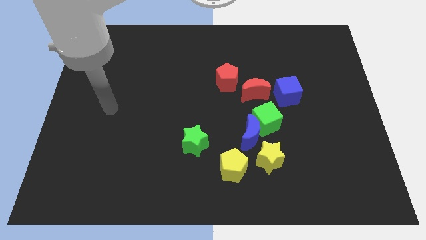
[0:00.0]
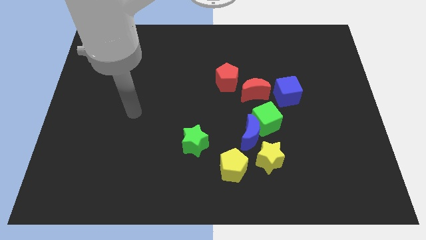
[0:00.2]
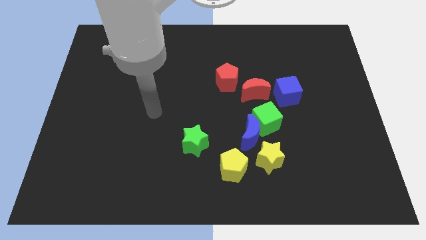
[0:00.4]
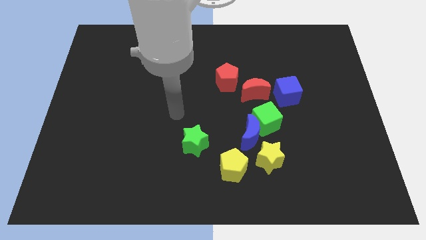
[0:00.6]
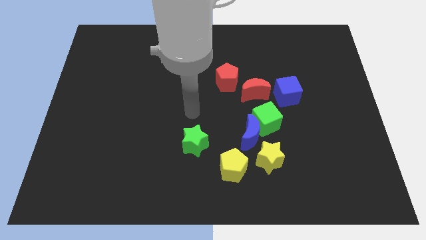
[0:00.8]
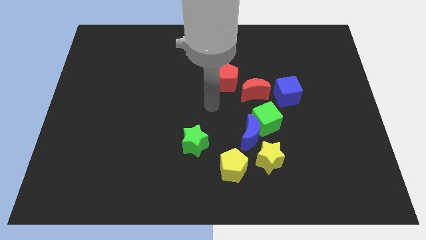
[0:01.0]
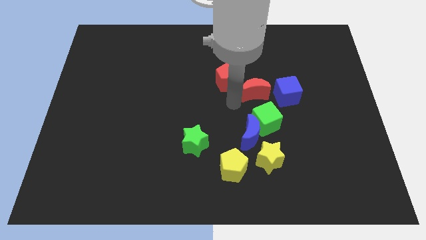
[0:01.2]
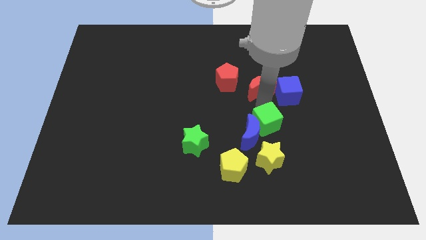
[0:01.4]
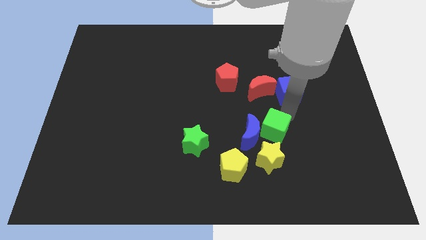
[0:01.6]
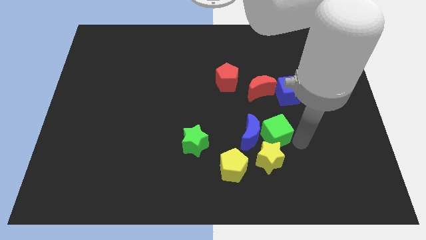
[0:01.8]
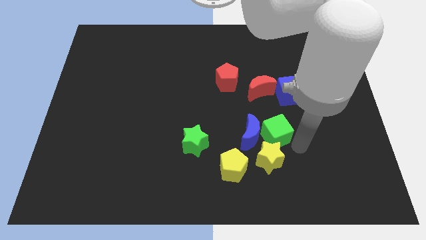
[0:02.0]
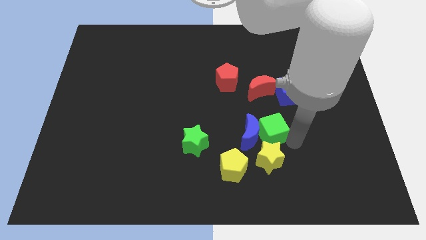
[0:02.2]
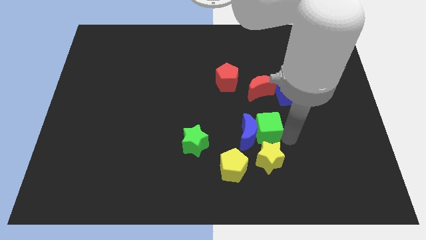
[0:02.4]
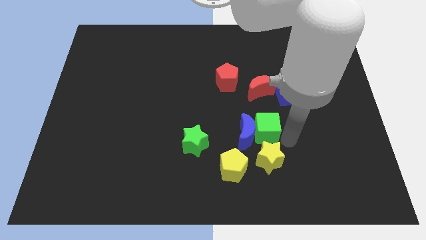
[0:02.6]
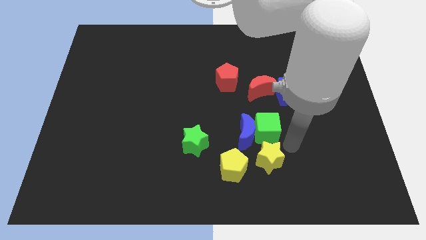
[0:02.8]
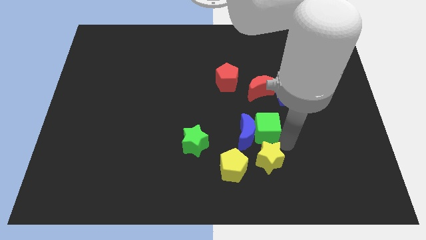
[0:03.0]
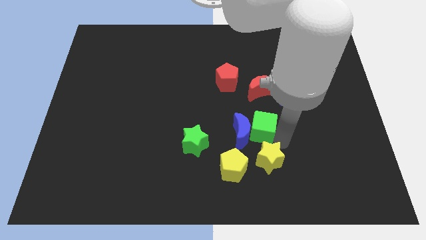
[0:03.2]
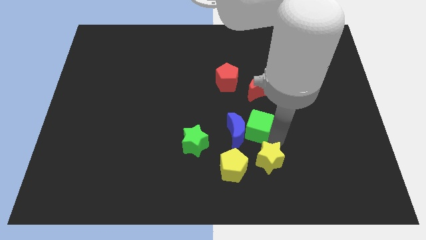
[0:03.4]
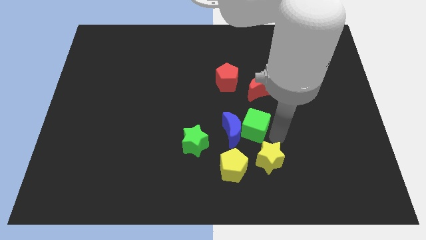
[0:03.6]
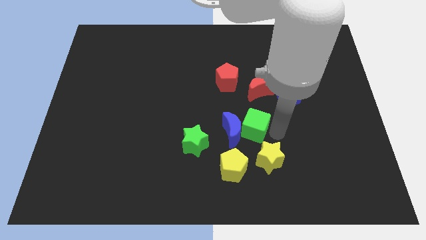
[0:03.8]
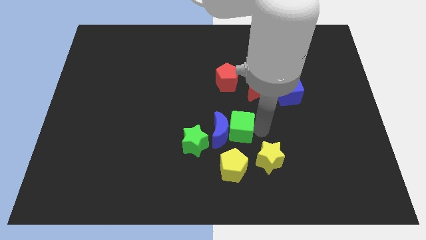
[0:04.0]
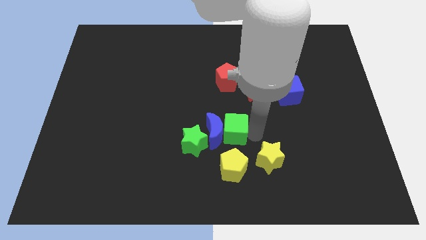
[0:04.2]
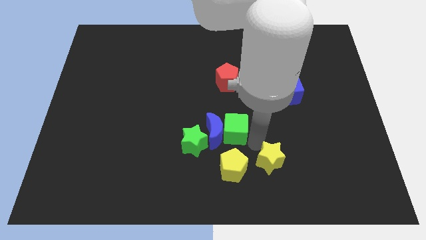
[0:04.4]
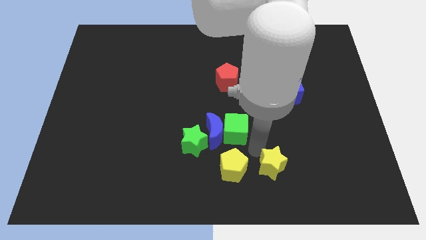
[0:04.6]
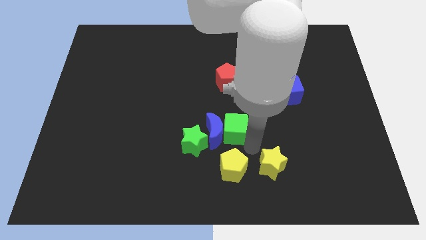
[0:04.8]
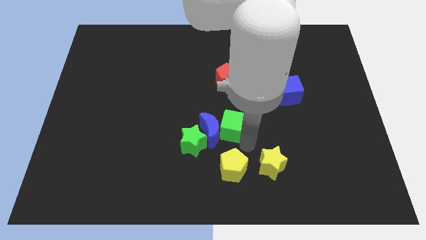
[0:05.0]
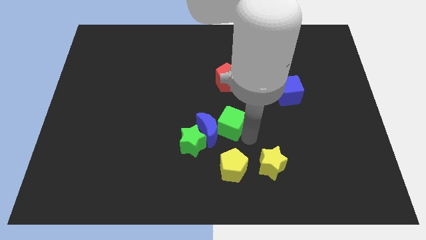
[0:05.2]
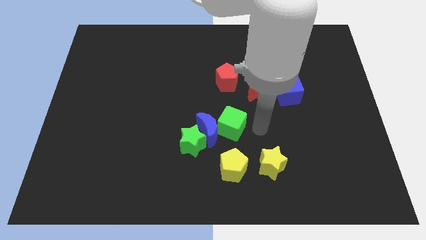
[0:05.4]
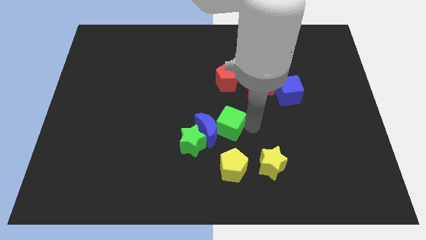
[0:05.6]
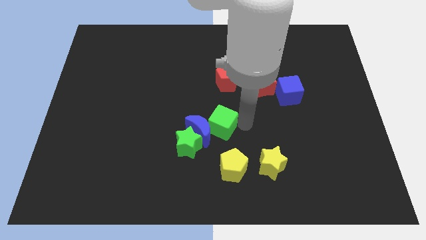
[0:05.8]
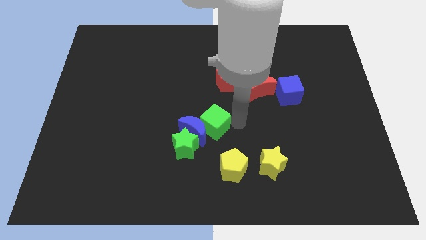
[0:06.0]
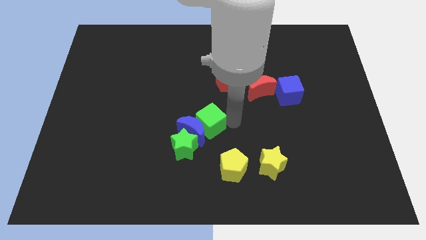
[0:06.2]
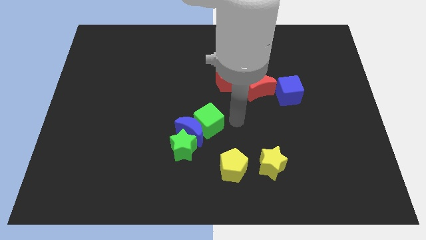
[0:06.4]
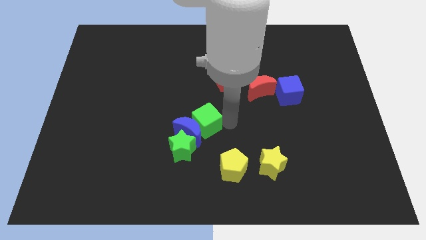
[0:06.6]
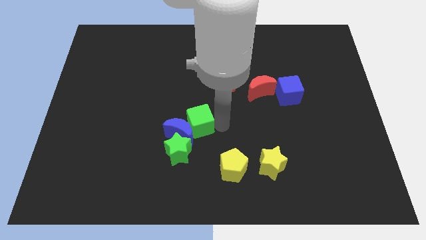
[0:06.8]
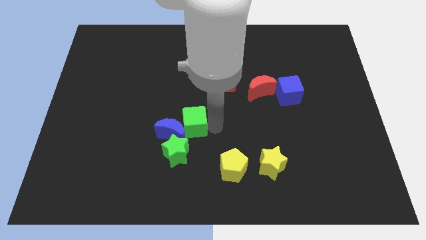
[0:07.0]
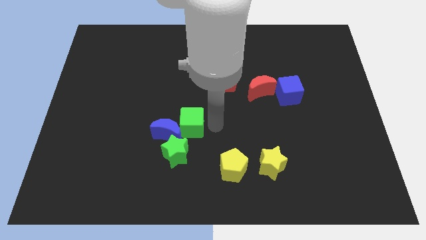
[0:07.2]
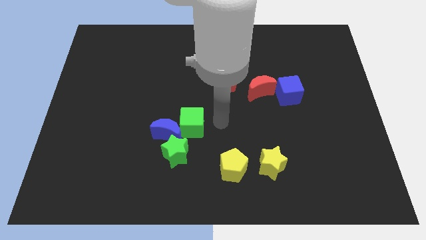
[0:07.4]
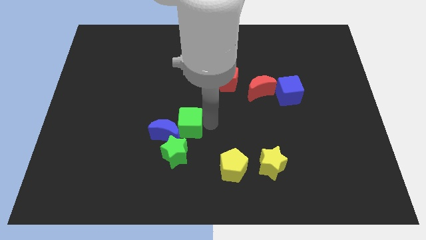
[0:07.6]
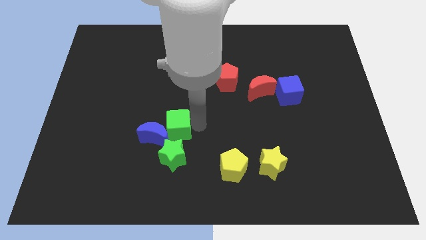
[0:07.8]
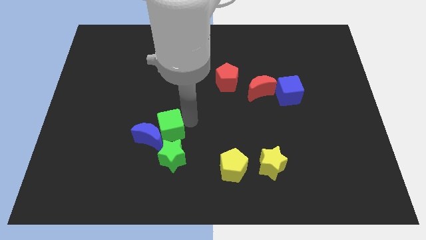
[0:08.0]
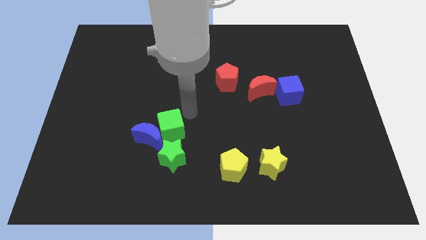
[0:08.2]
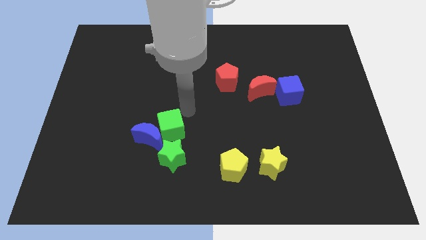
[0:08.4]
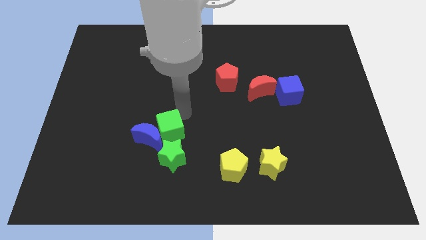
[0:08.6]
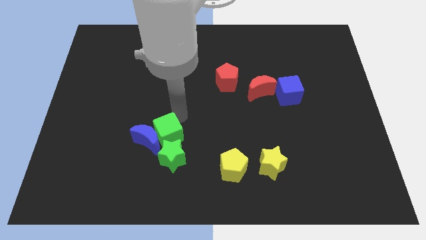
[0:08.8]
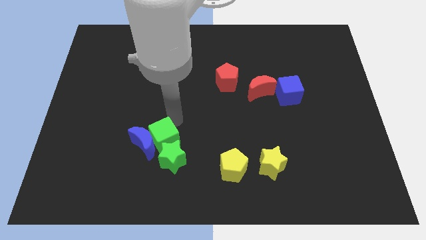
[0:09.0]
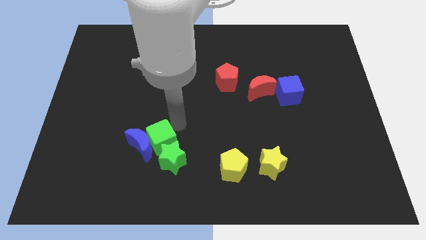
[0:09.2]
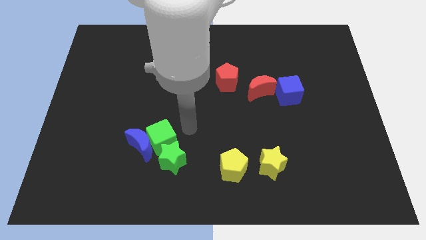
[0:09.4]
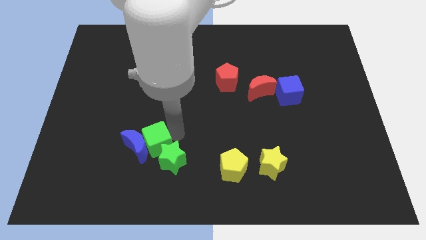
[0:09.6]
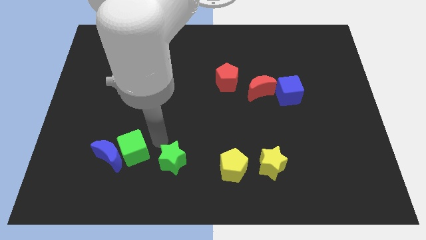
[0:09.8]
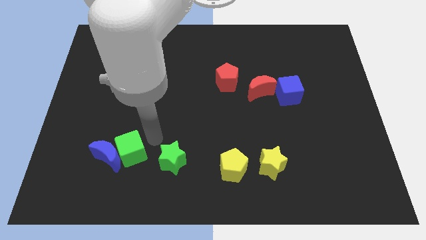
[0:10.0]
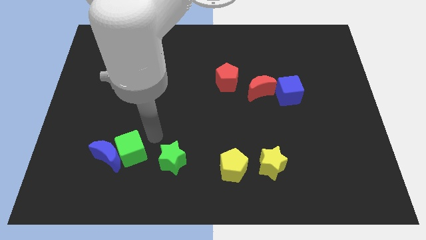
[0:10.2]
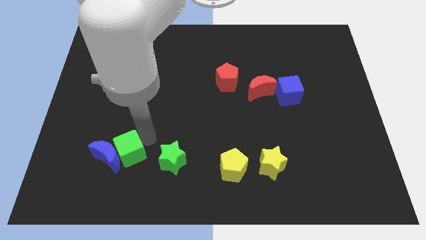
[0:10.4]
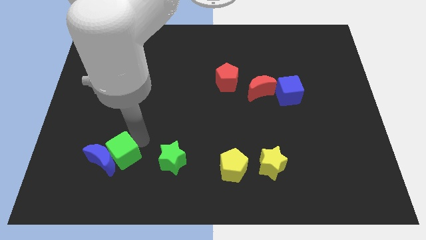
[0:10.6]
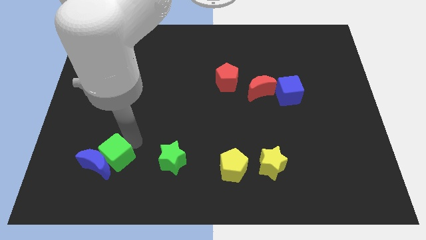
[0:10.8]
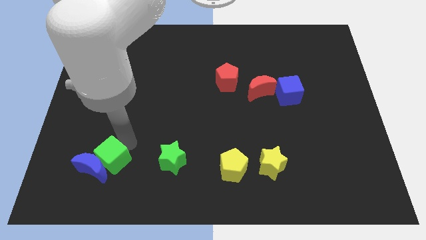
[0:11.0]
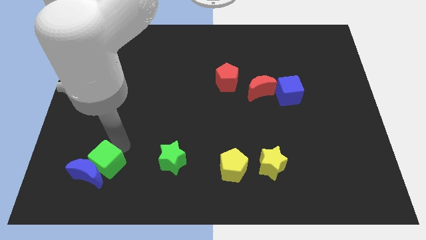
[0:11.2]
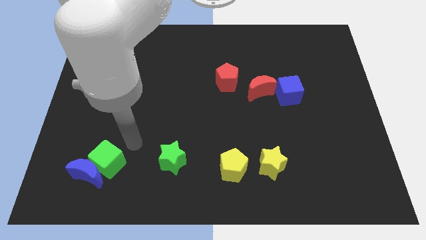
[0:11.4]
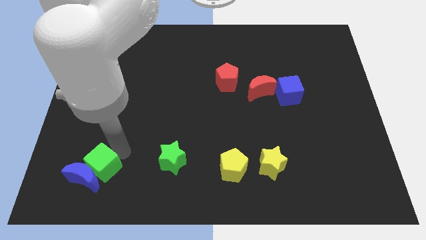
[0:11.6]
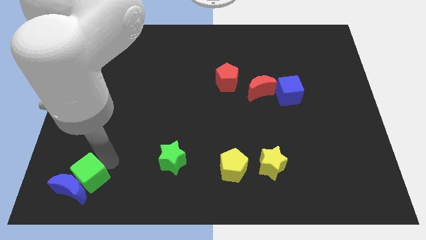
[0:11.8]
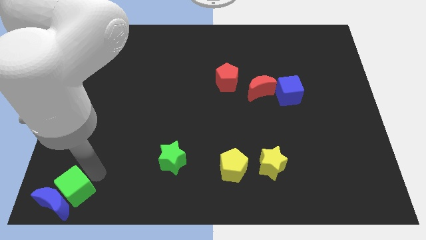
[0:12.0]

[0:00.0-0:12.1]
put the green cube to the lower left corner

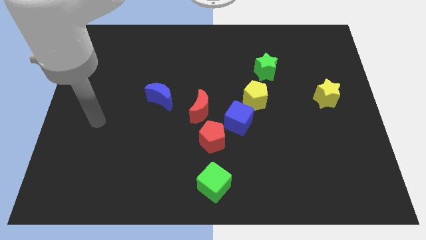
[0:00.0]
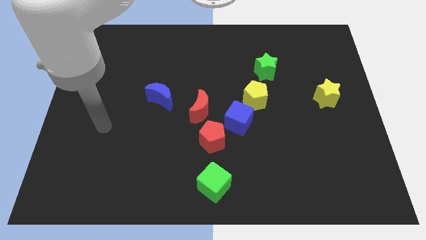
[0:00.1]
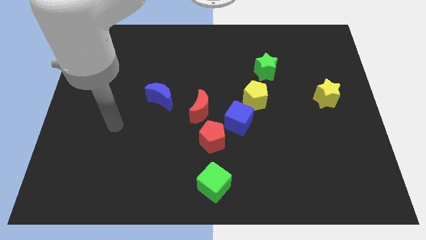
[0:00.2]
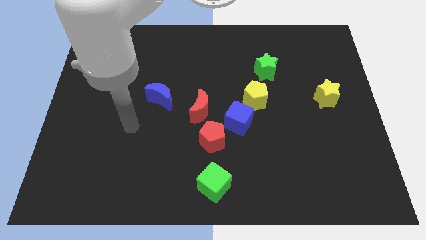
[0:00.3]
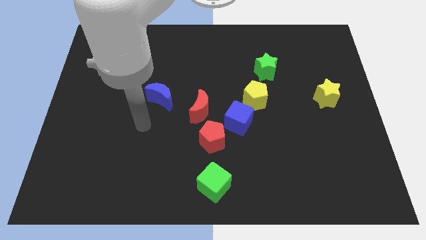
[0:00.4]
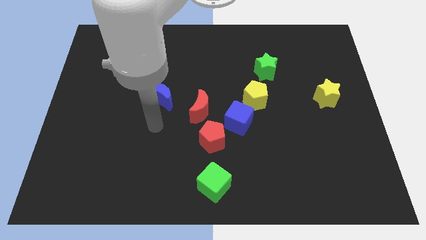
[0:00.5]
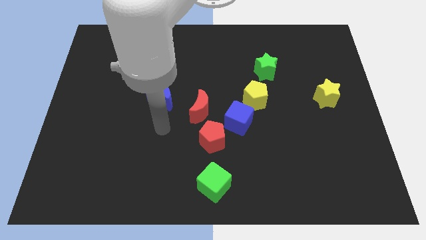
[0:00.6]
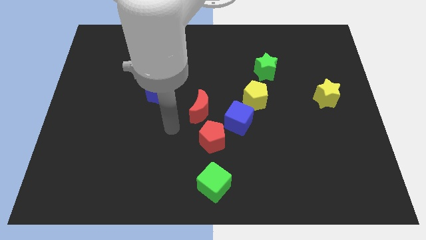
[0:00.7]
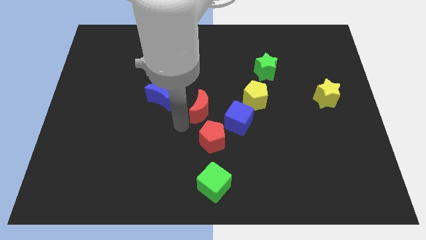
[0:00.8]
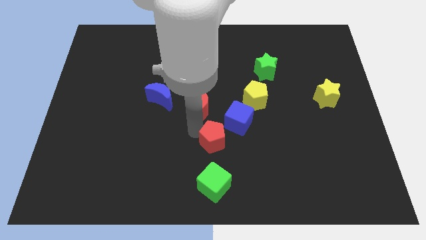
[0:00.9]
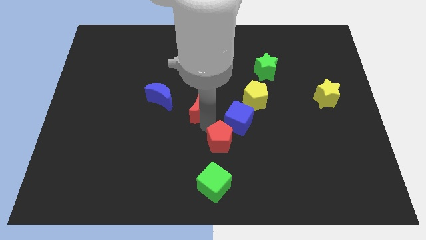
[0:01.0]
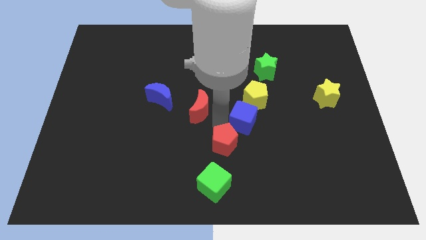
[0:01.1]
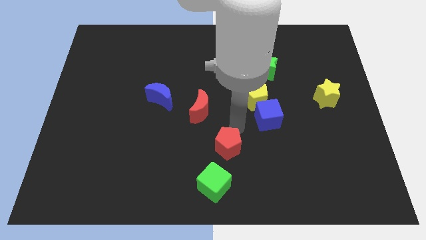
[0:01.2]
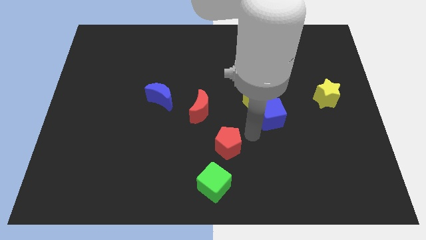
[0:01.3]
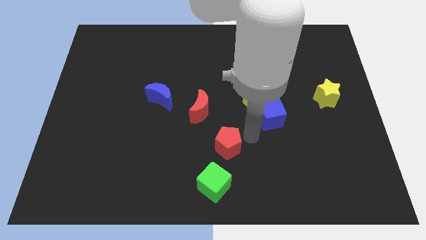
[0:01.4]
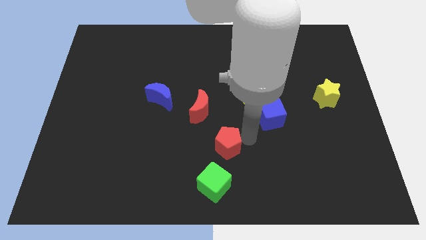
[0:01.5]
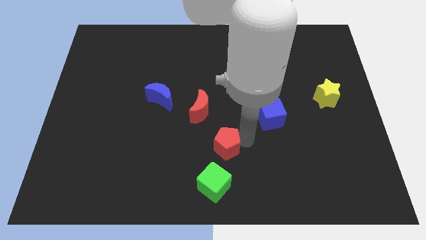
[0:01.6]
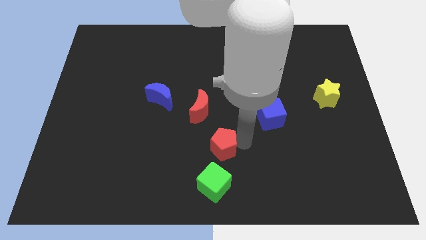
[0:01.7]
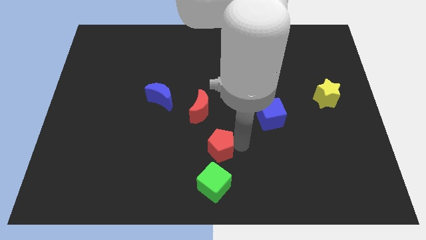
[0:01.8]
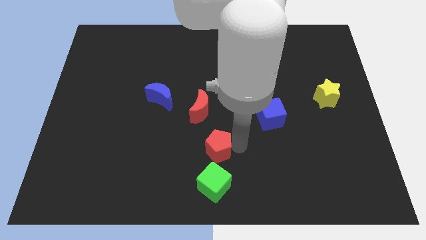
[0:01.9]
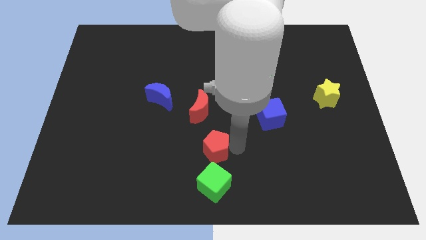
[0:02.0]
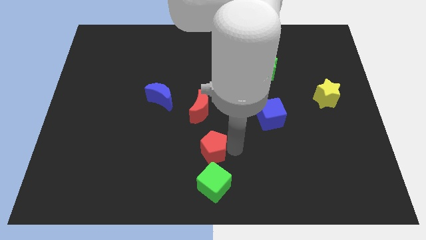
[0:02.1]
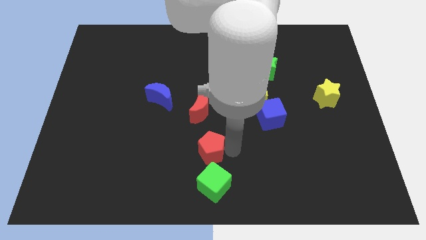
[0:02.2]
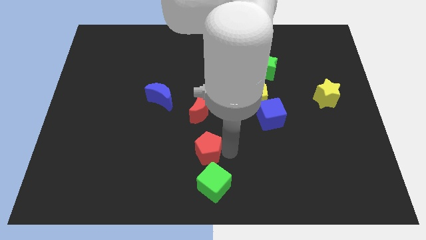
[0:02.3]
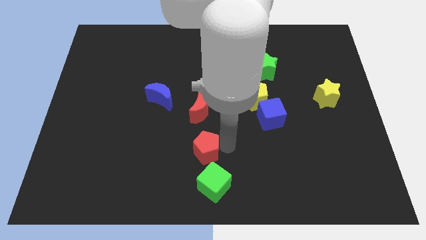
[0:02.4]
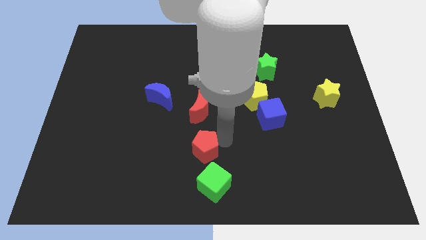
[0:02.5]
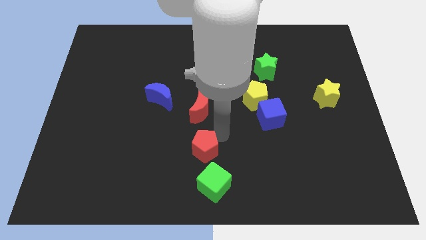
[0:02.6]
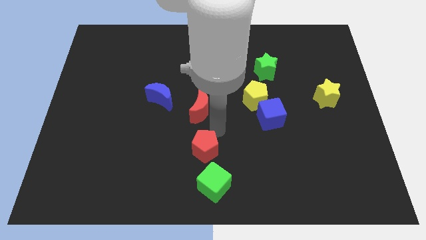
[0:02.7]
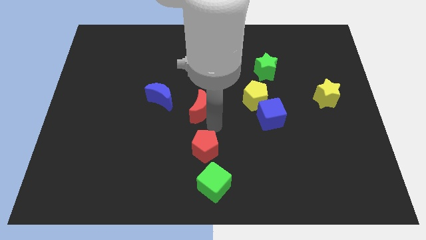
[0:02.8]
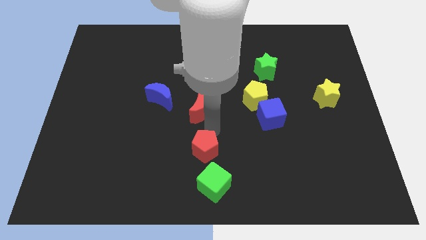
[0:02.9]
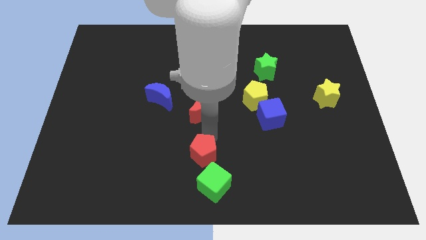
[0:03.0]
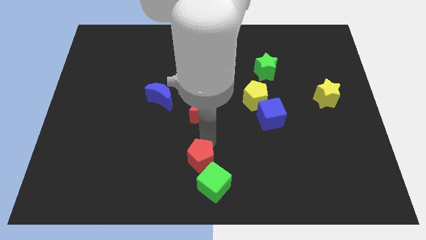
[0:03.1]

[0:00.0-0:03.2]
push the red pentagon to the bottom
